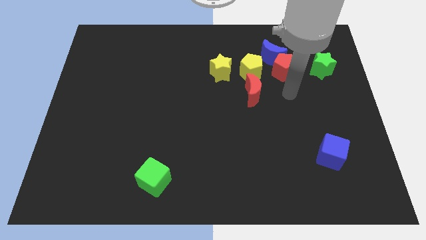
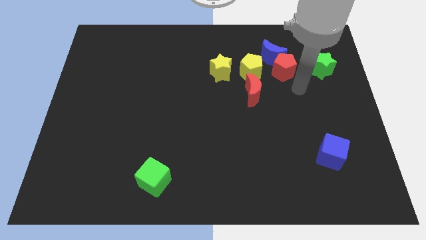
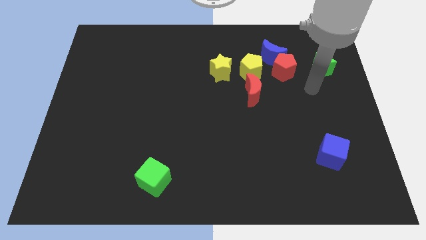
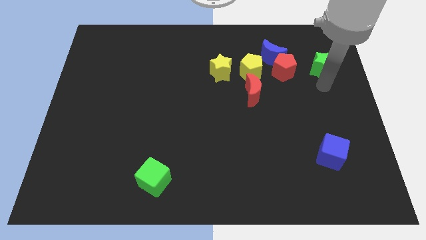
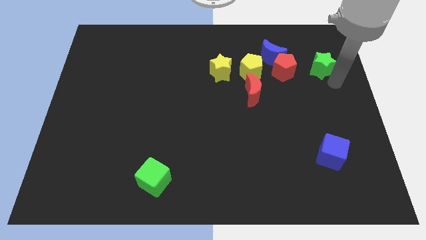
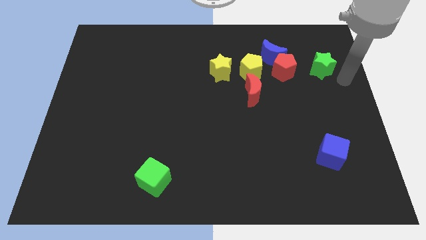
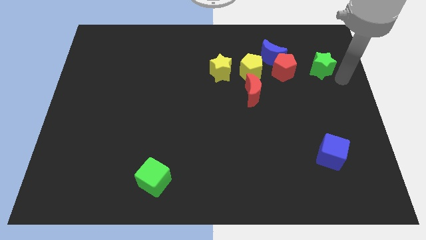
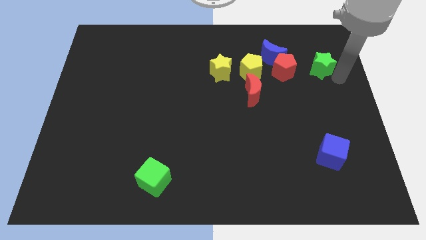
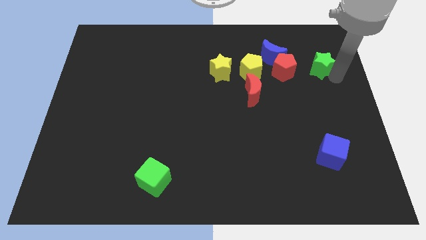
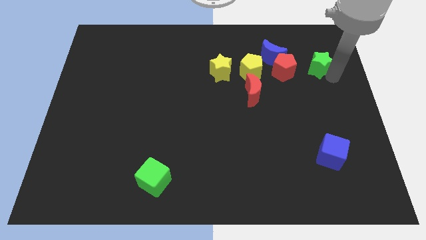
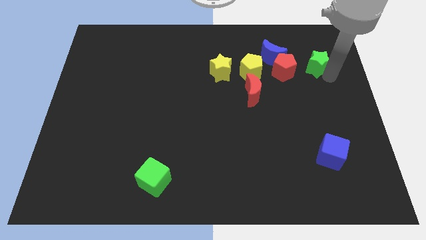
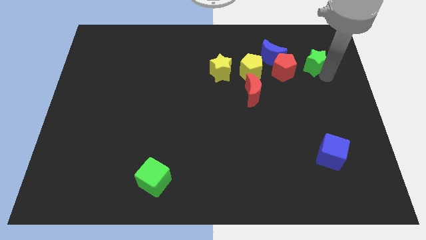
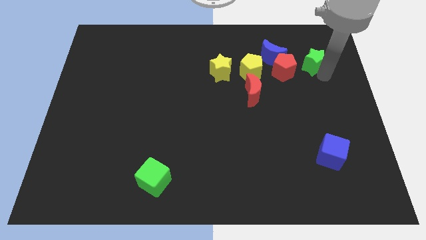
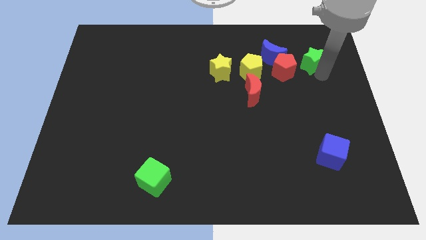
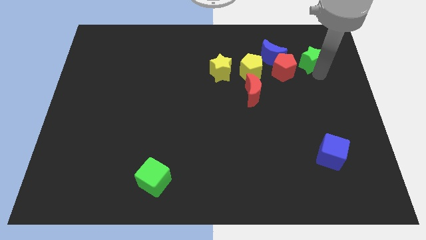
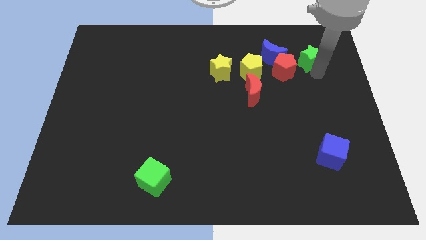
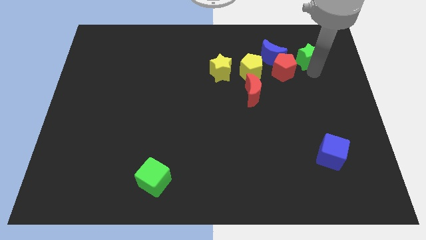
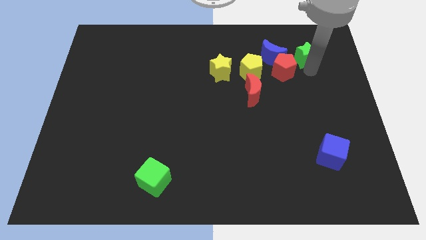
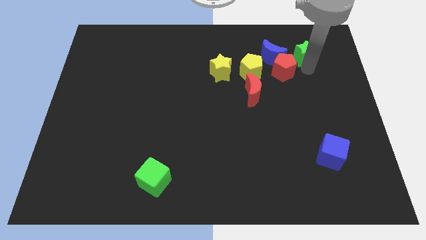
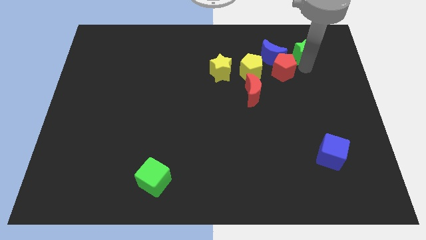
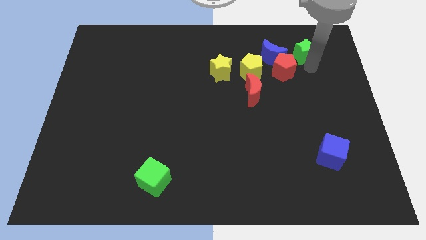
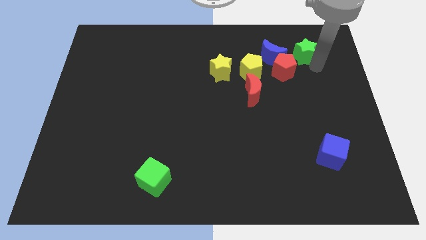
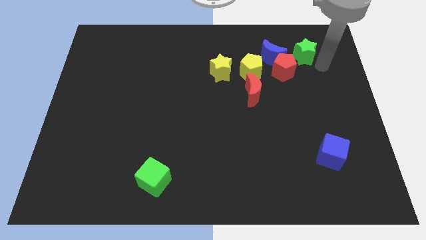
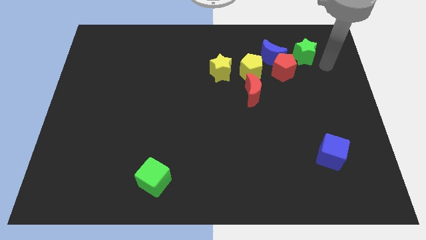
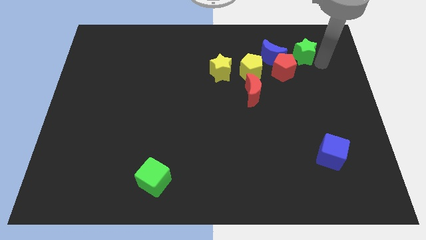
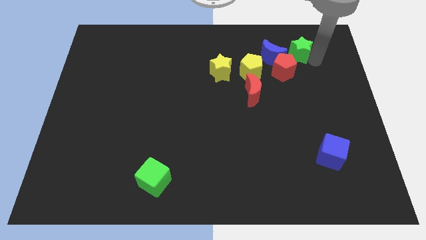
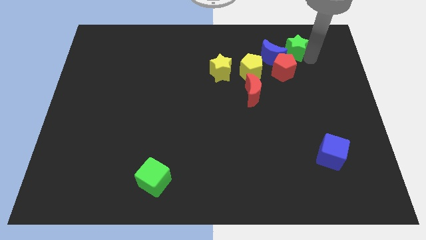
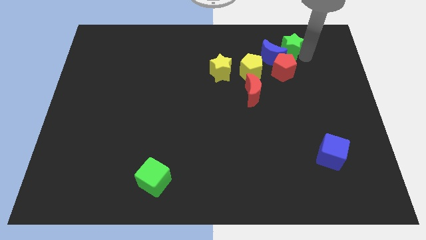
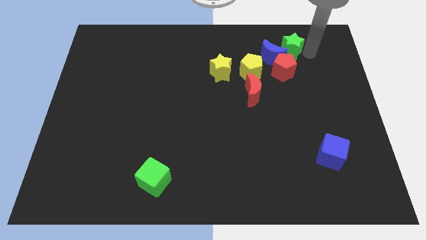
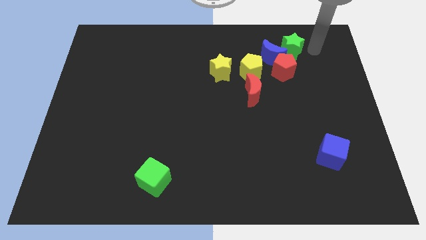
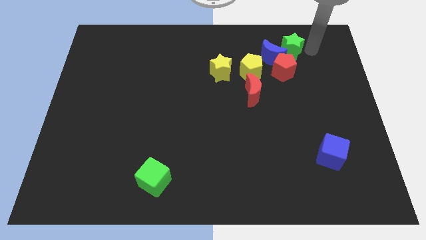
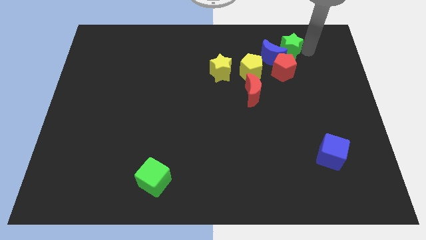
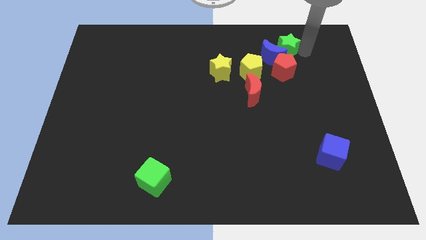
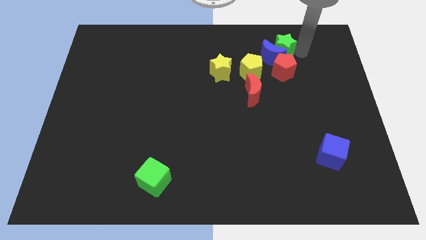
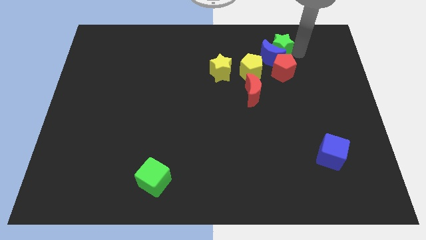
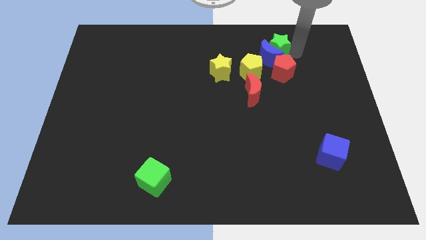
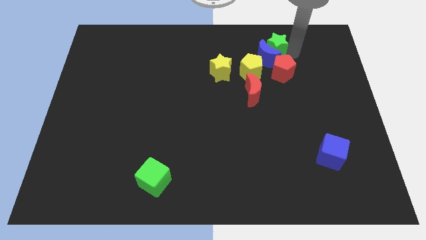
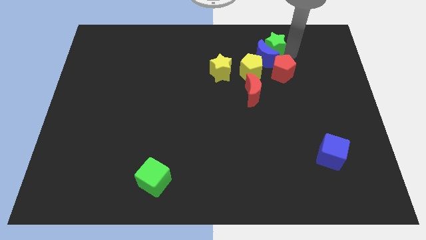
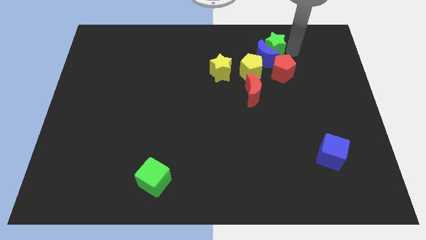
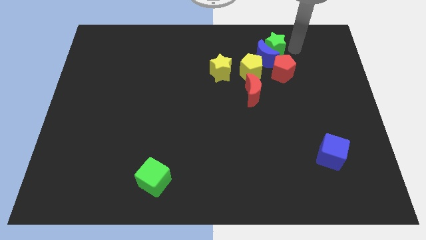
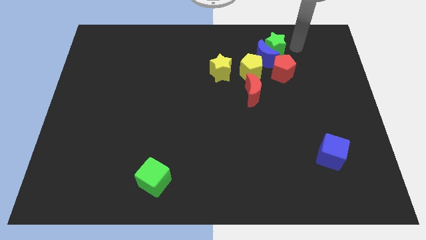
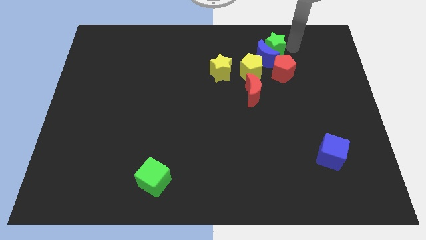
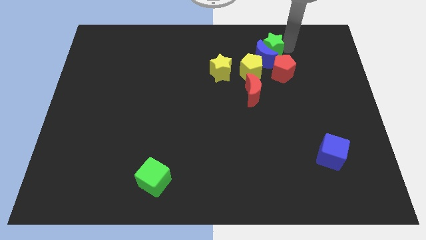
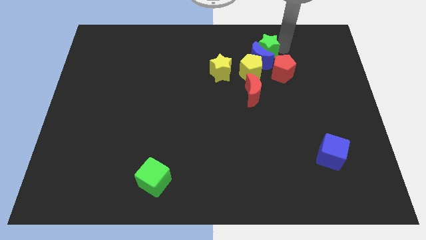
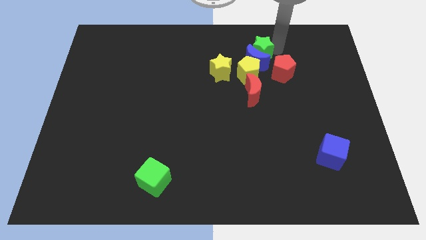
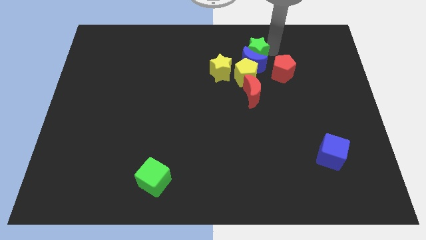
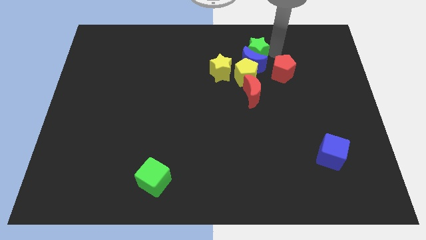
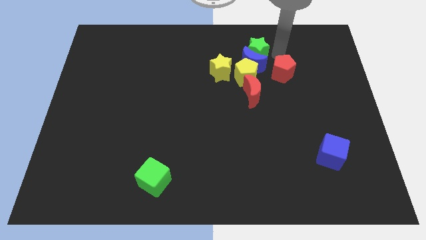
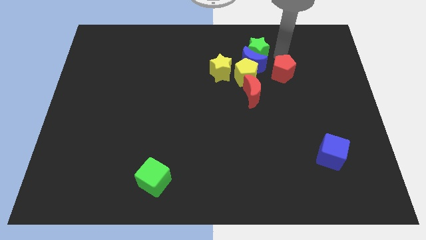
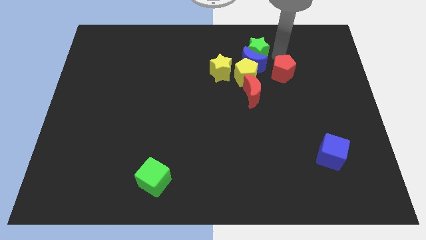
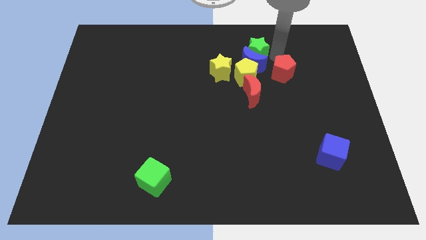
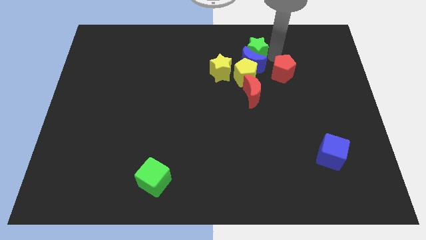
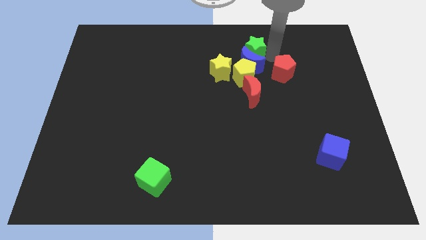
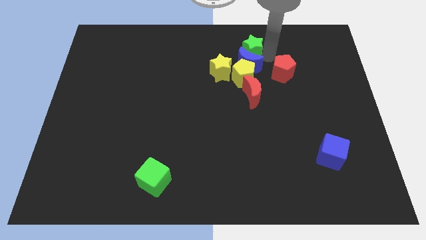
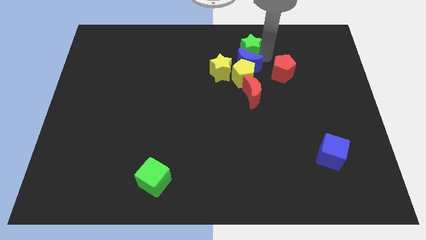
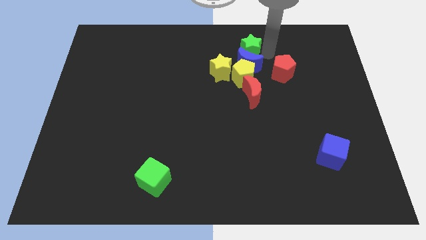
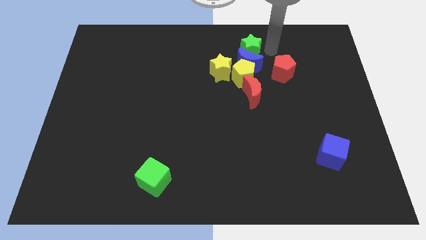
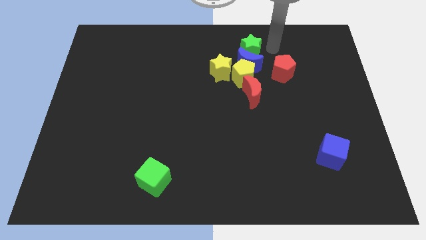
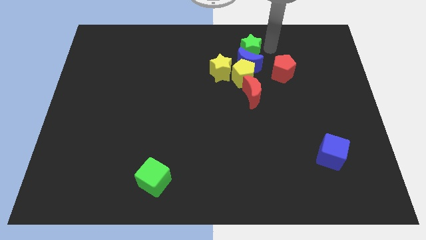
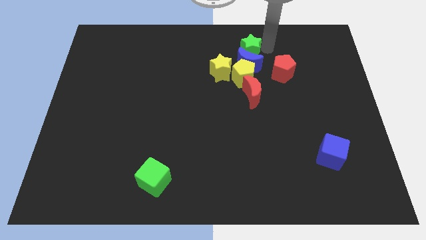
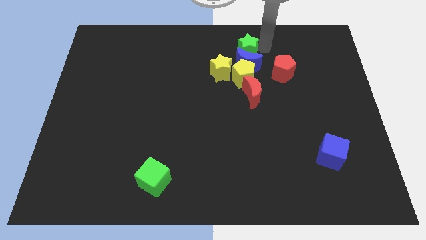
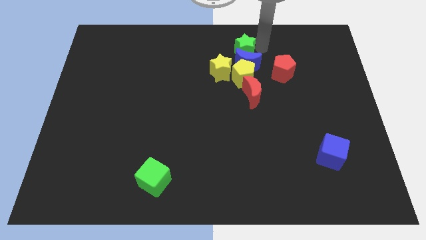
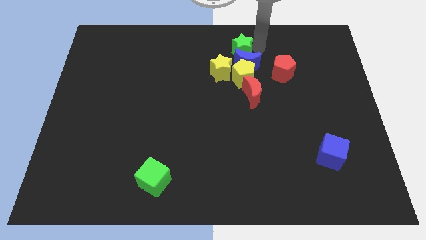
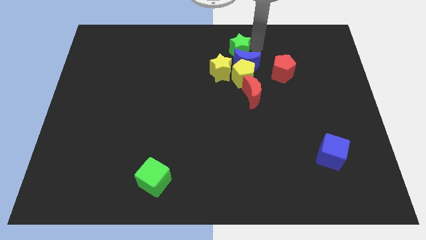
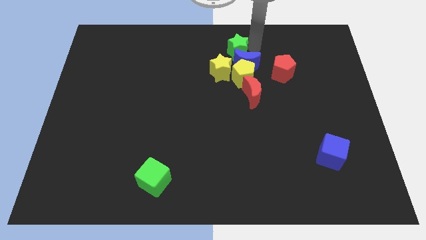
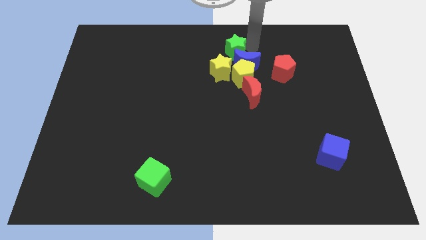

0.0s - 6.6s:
move the green star to the left

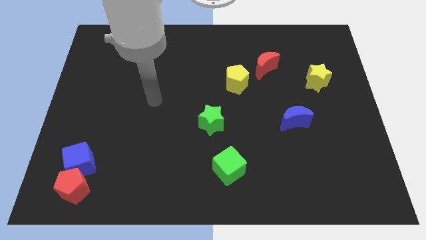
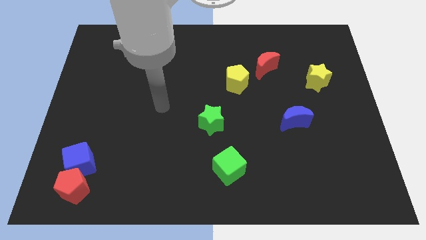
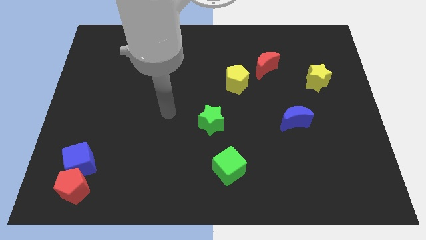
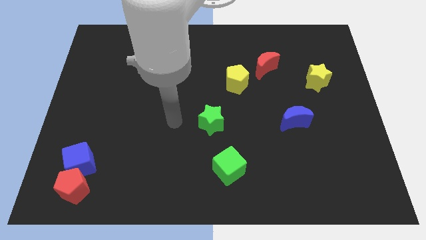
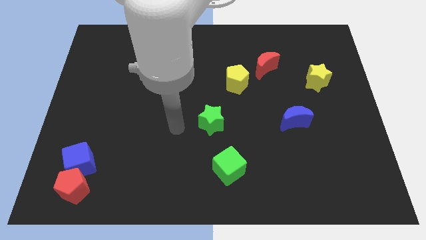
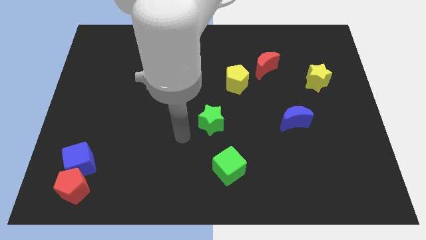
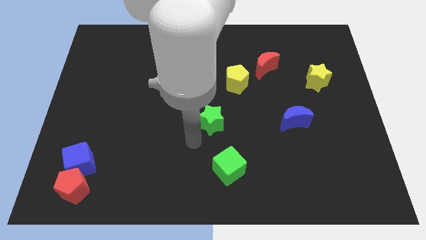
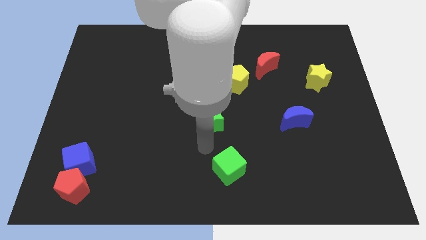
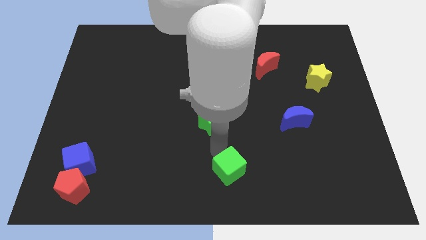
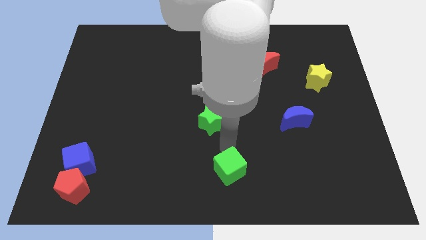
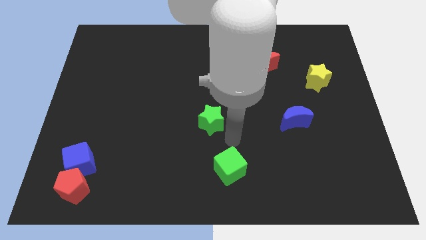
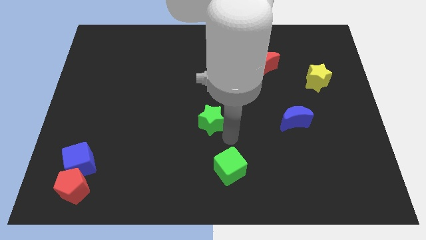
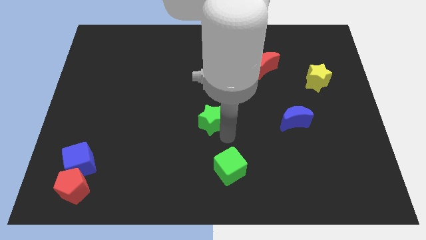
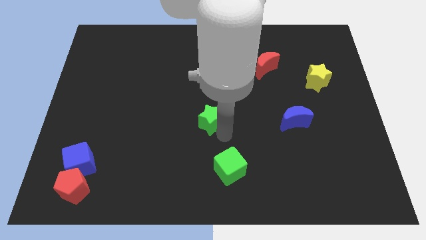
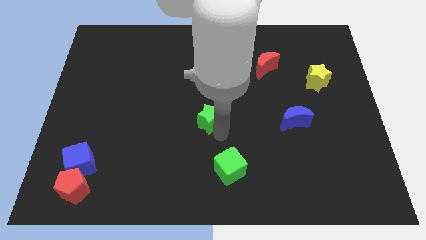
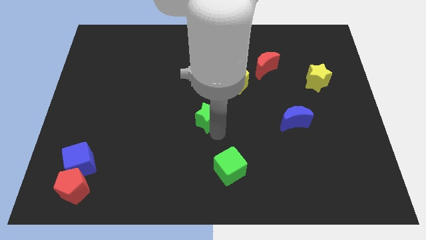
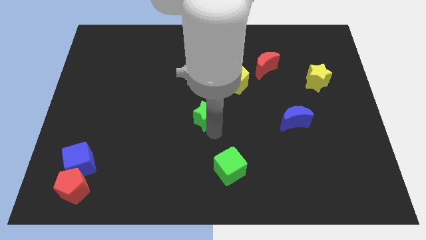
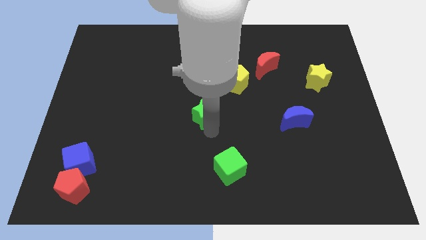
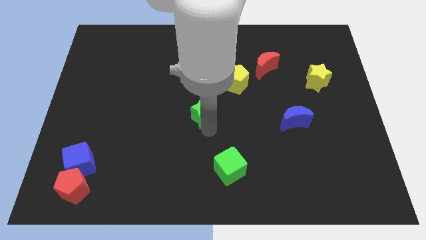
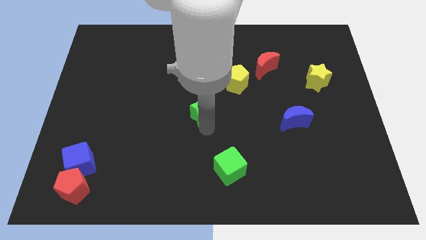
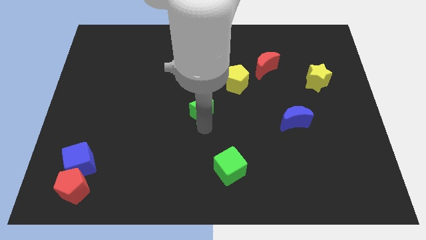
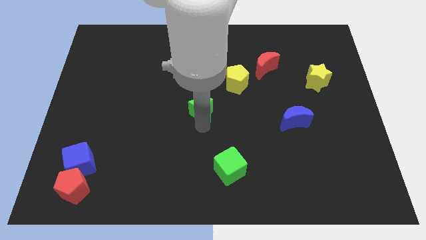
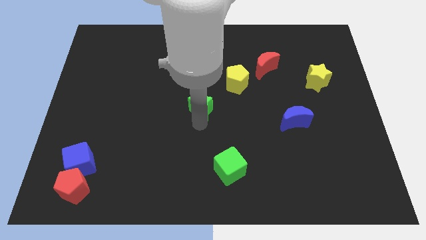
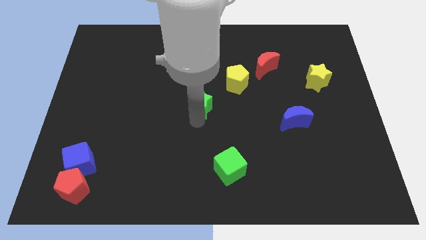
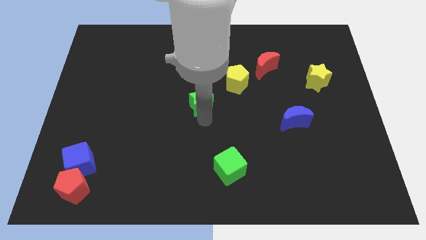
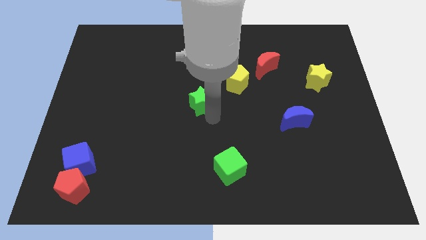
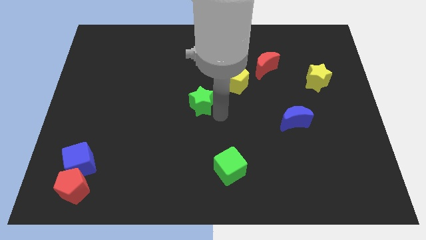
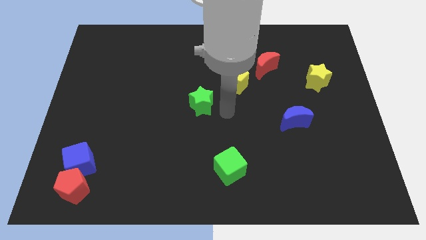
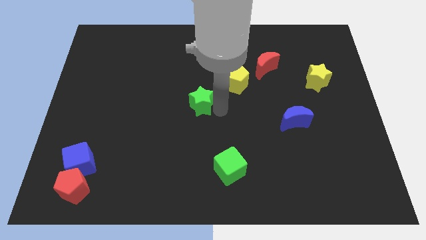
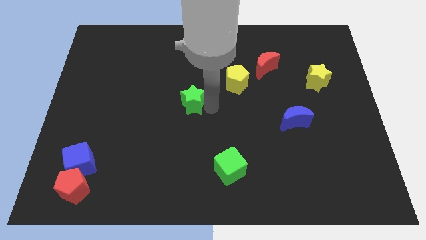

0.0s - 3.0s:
move the green star upwards and then left slightly
